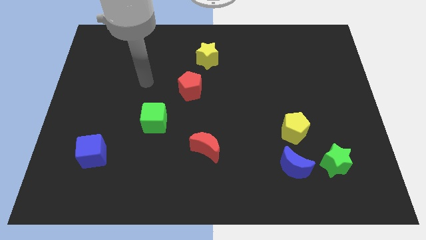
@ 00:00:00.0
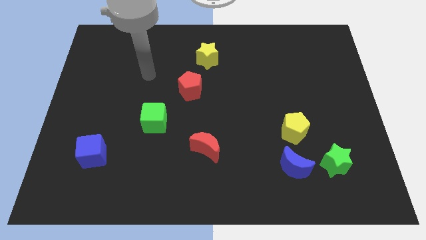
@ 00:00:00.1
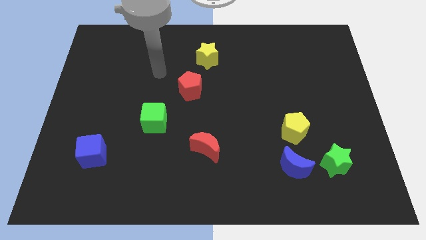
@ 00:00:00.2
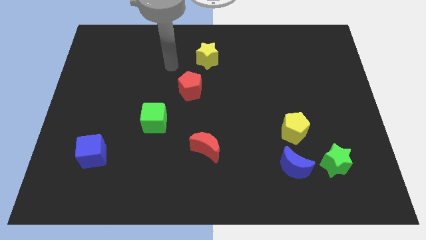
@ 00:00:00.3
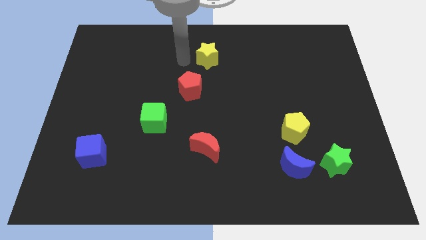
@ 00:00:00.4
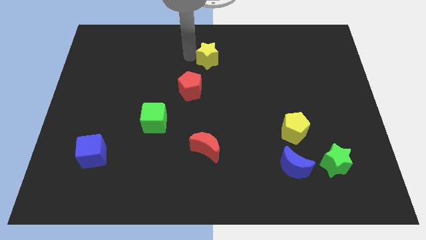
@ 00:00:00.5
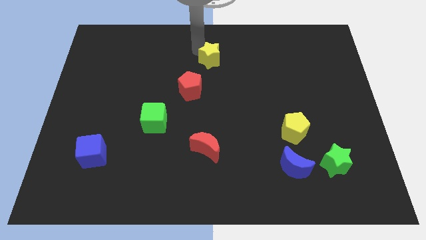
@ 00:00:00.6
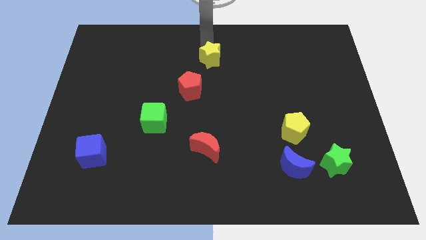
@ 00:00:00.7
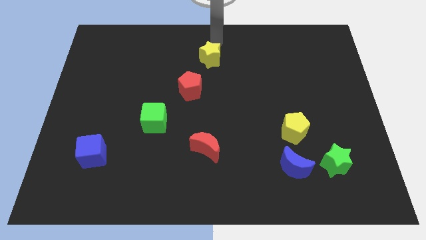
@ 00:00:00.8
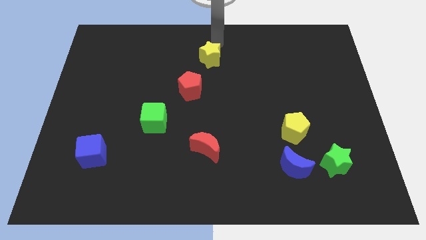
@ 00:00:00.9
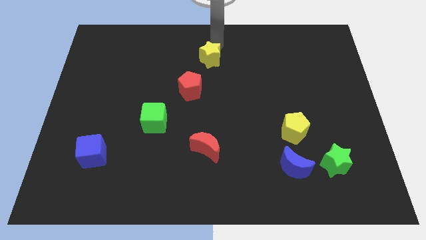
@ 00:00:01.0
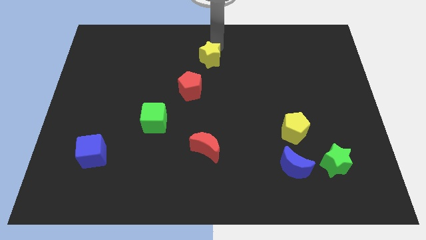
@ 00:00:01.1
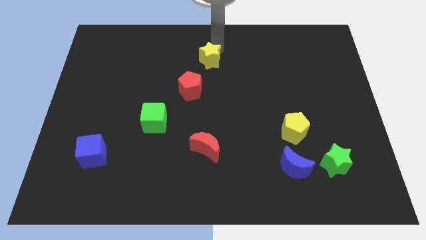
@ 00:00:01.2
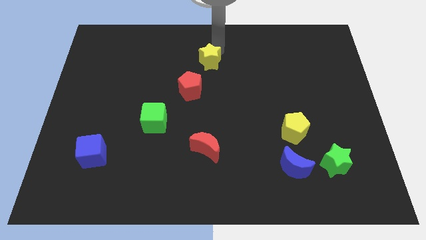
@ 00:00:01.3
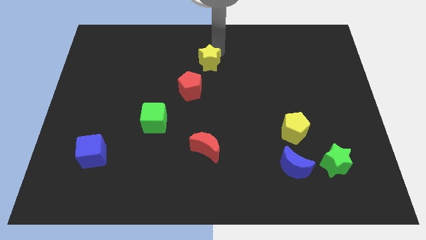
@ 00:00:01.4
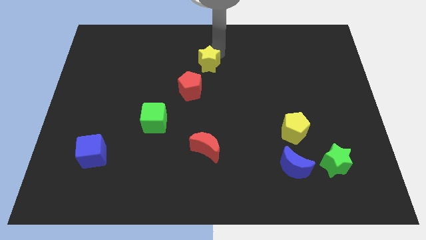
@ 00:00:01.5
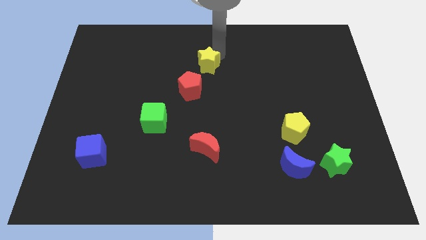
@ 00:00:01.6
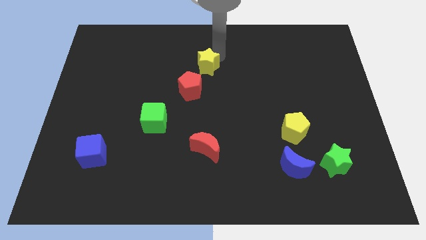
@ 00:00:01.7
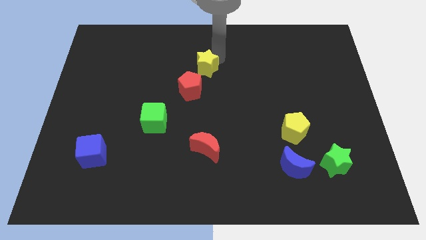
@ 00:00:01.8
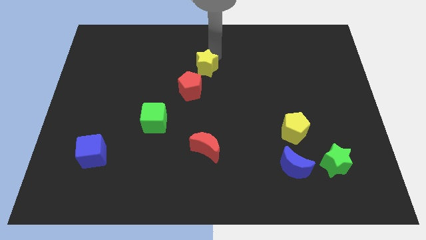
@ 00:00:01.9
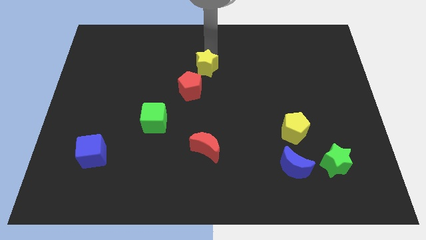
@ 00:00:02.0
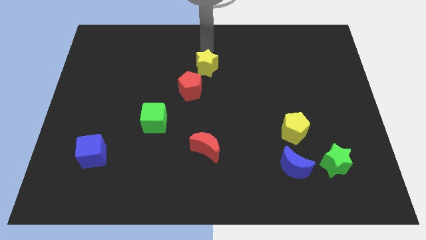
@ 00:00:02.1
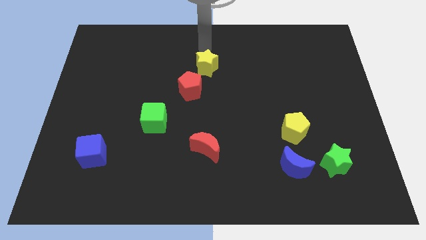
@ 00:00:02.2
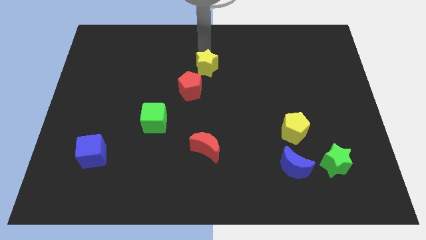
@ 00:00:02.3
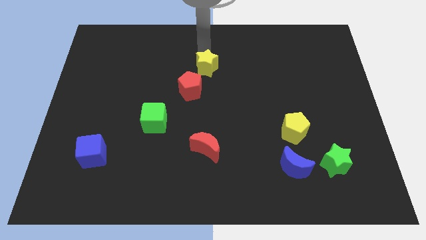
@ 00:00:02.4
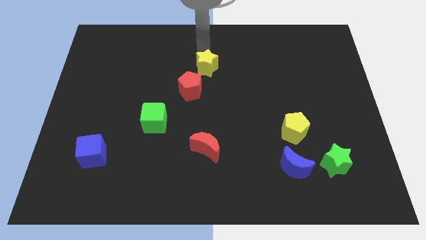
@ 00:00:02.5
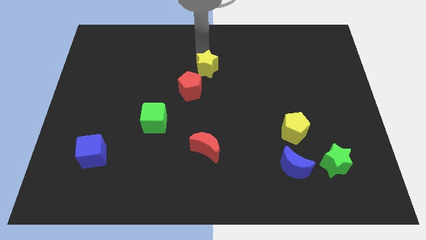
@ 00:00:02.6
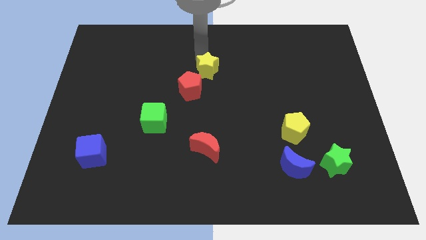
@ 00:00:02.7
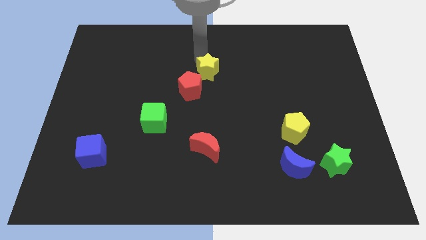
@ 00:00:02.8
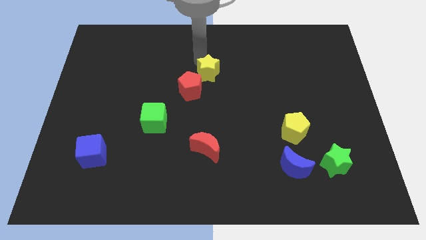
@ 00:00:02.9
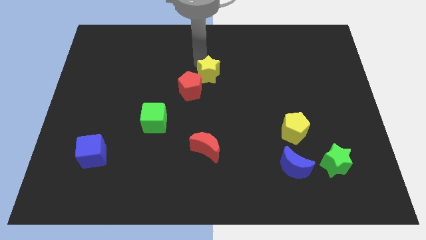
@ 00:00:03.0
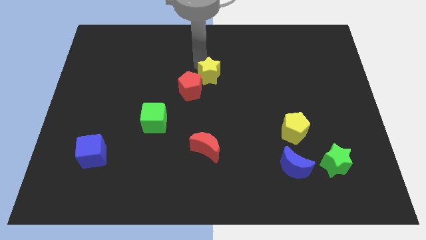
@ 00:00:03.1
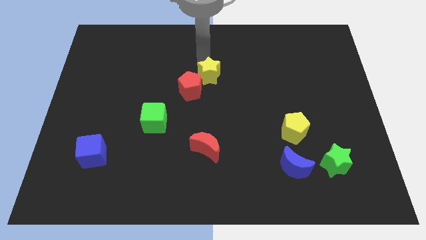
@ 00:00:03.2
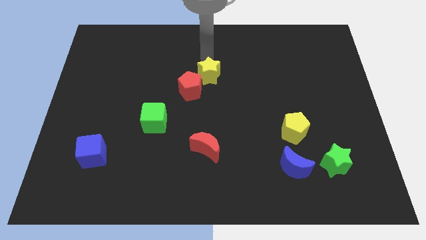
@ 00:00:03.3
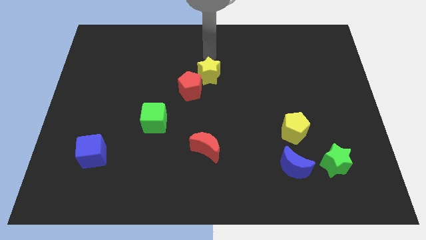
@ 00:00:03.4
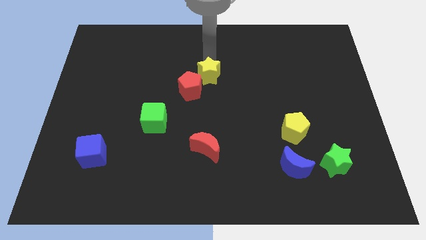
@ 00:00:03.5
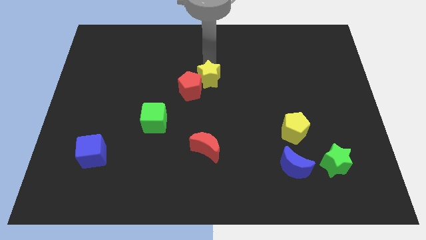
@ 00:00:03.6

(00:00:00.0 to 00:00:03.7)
move the yellow star slightly down

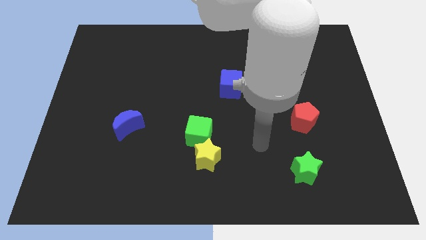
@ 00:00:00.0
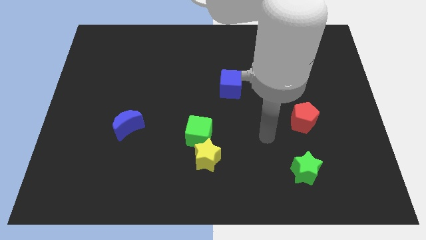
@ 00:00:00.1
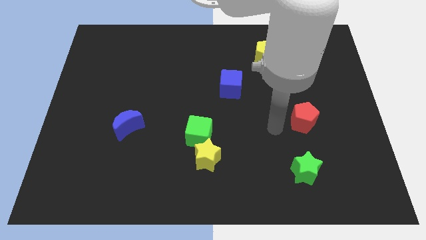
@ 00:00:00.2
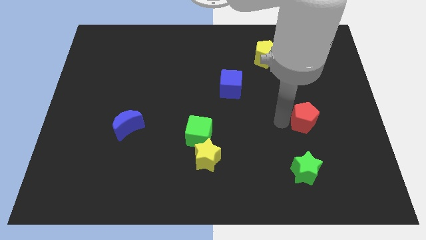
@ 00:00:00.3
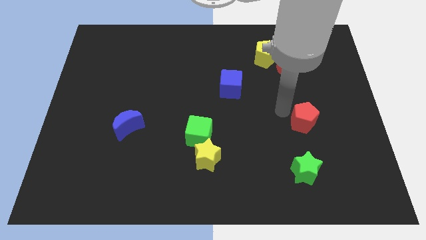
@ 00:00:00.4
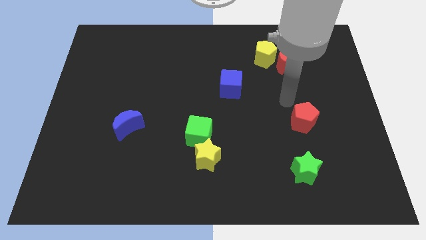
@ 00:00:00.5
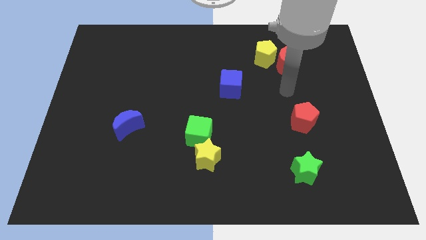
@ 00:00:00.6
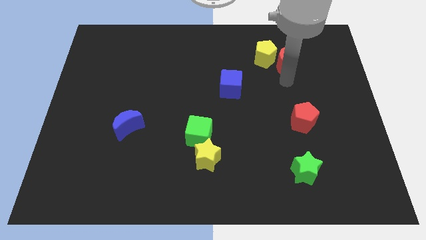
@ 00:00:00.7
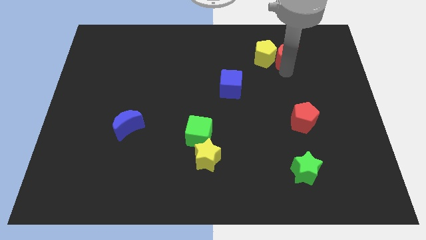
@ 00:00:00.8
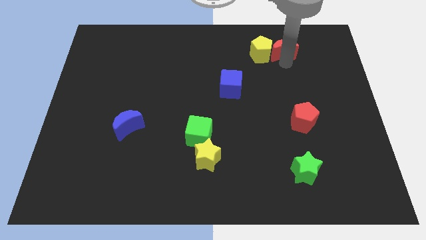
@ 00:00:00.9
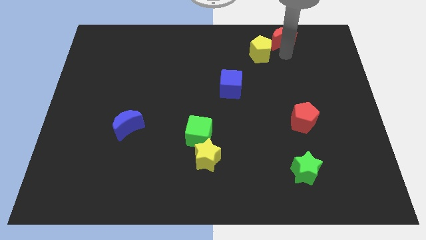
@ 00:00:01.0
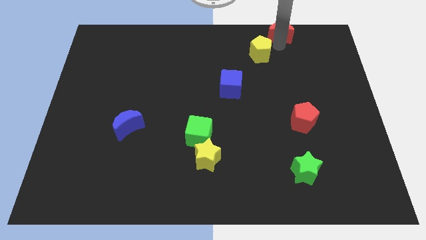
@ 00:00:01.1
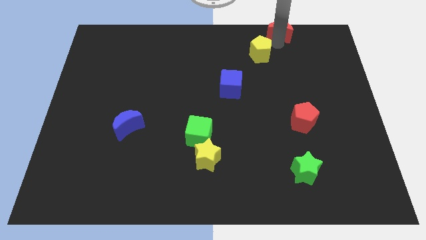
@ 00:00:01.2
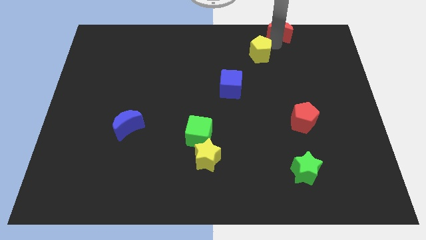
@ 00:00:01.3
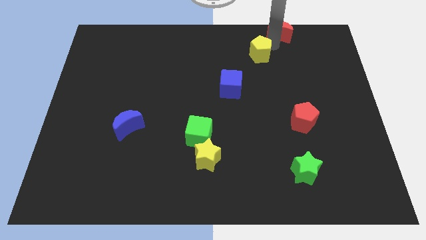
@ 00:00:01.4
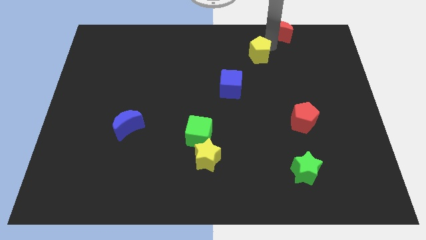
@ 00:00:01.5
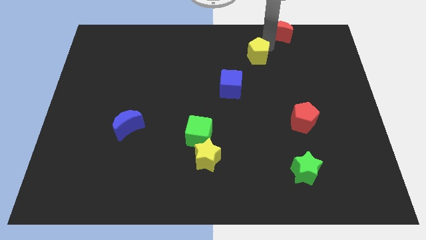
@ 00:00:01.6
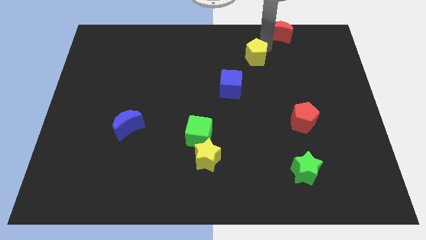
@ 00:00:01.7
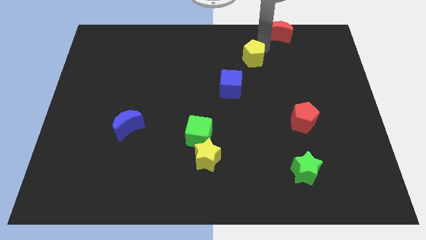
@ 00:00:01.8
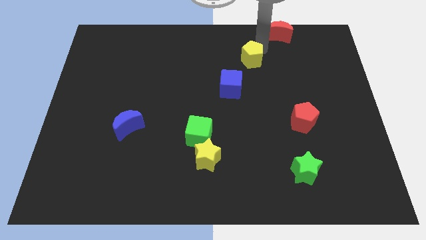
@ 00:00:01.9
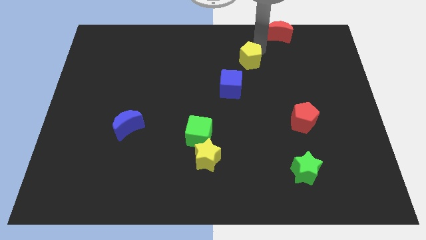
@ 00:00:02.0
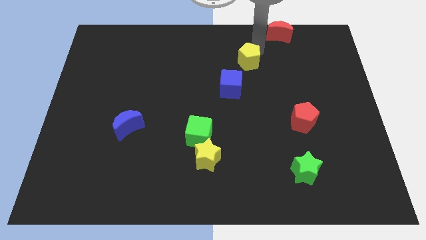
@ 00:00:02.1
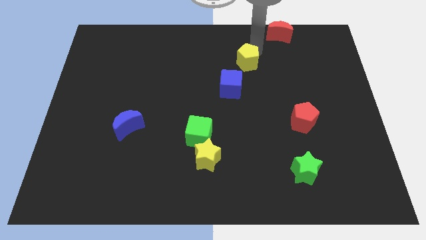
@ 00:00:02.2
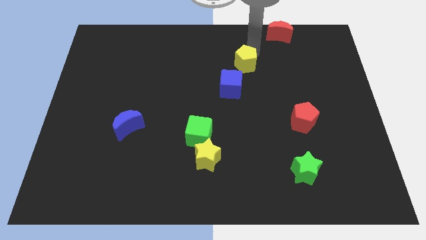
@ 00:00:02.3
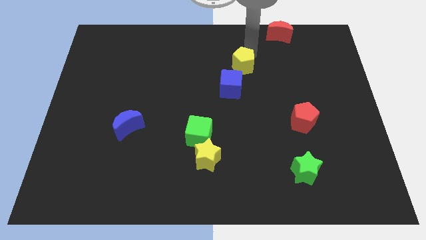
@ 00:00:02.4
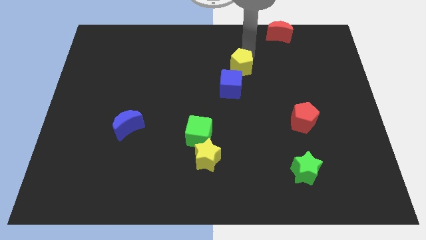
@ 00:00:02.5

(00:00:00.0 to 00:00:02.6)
slightly slide the yellow pentagon down and to the left

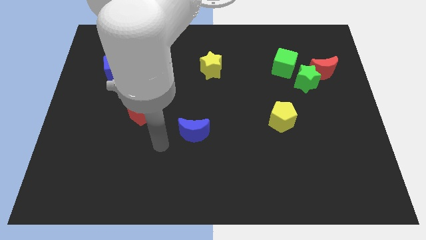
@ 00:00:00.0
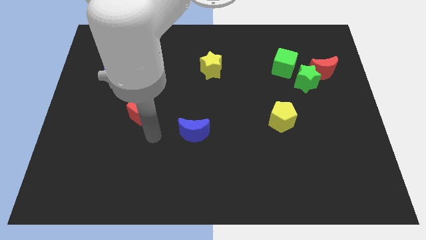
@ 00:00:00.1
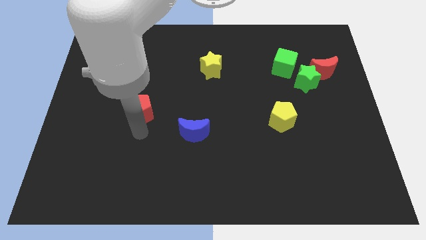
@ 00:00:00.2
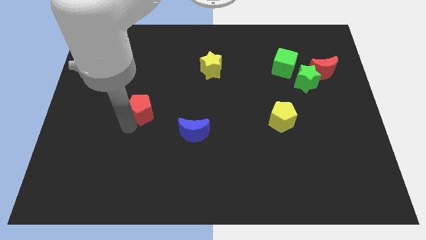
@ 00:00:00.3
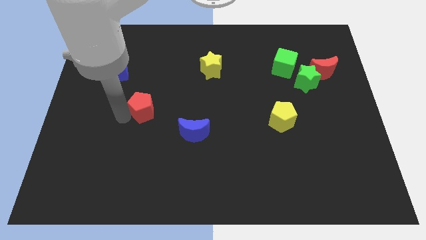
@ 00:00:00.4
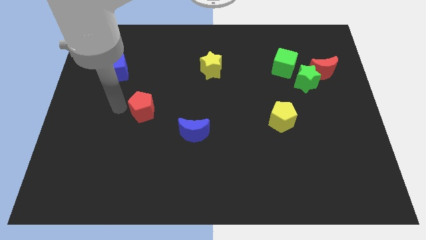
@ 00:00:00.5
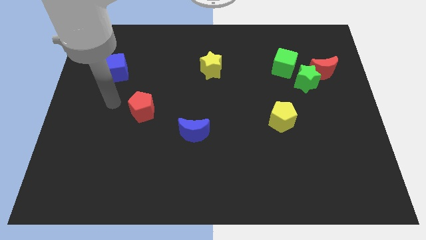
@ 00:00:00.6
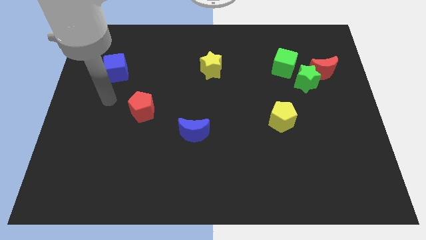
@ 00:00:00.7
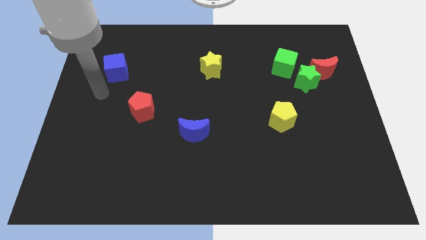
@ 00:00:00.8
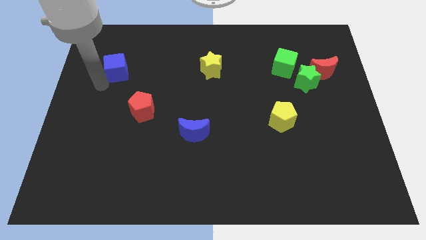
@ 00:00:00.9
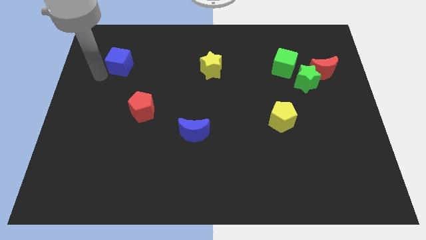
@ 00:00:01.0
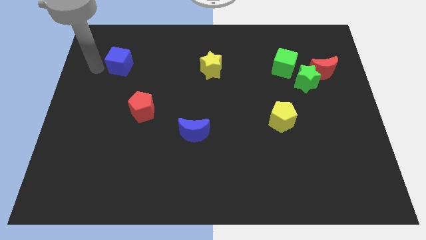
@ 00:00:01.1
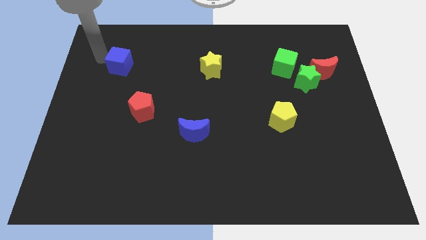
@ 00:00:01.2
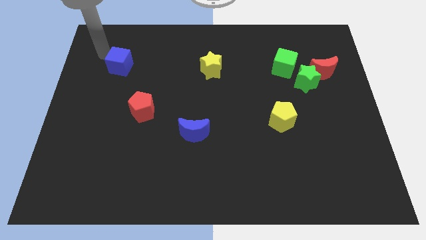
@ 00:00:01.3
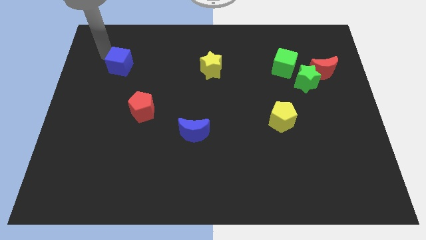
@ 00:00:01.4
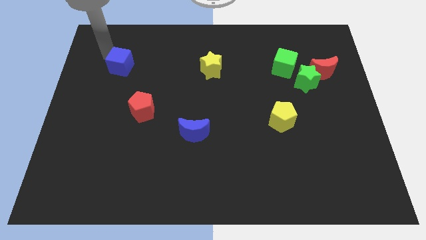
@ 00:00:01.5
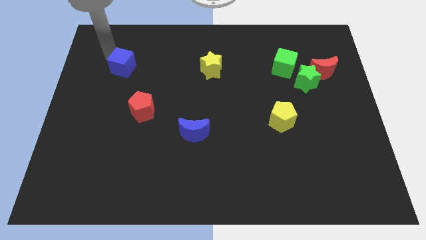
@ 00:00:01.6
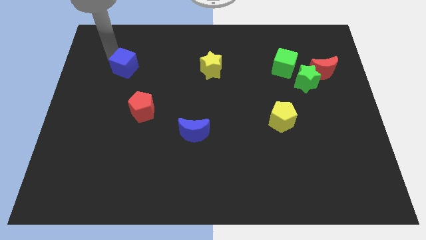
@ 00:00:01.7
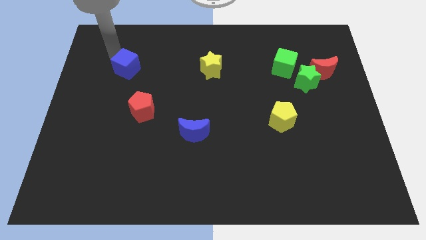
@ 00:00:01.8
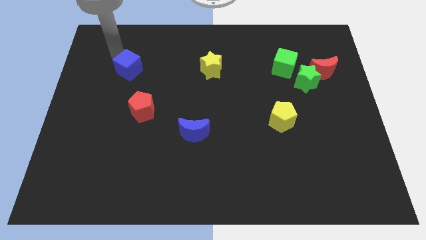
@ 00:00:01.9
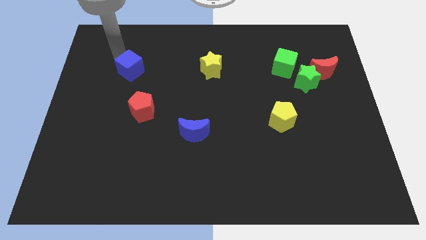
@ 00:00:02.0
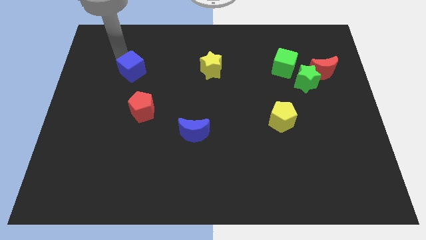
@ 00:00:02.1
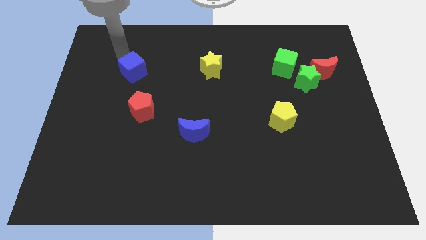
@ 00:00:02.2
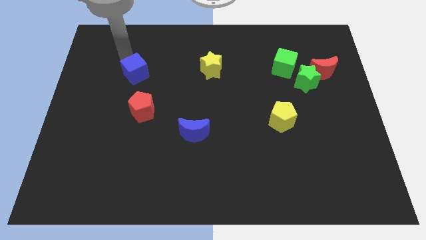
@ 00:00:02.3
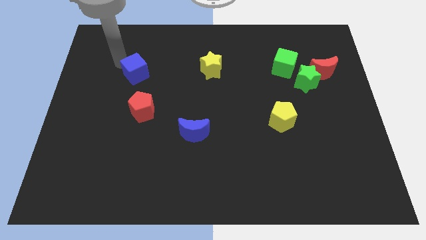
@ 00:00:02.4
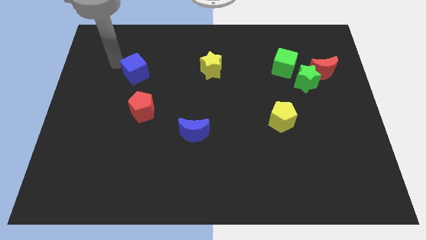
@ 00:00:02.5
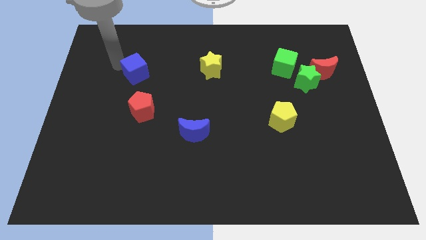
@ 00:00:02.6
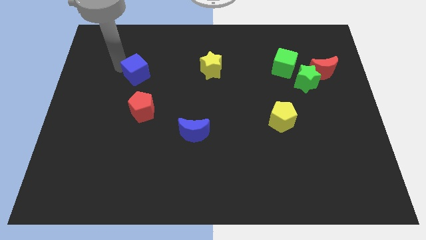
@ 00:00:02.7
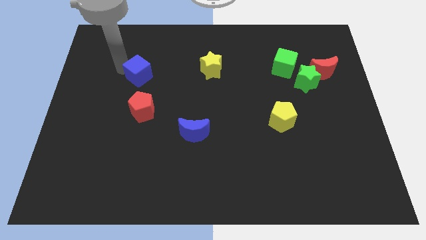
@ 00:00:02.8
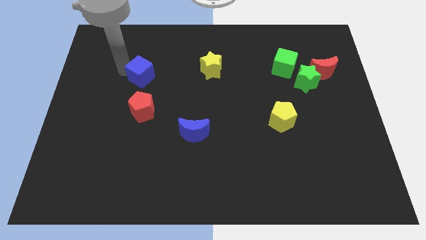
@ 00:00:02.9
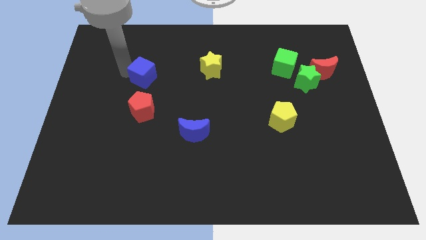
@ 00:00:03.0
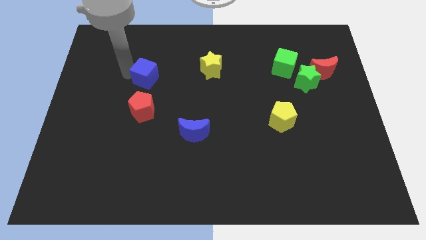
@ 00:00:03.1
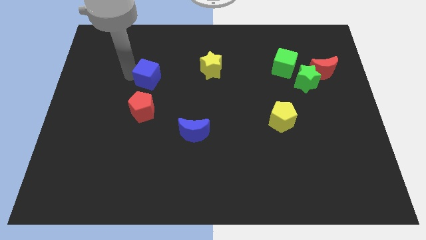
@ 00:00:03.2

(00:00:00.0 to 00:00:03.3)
slightly push the blue cube downwards and right diagonally
